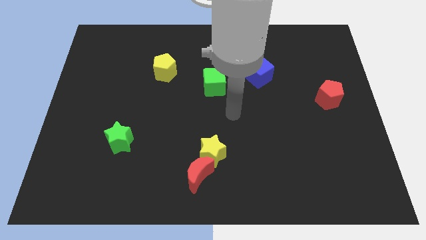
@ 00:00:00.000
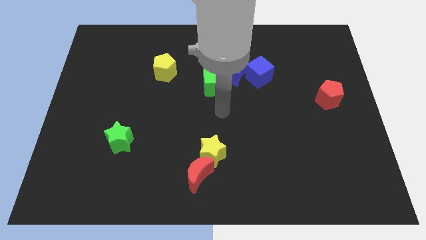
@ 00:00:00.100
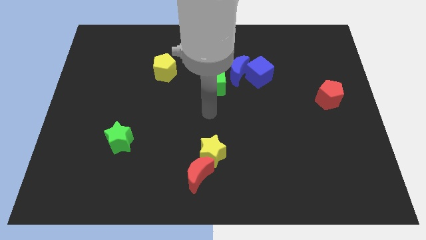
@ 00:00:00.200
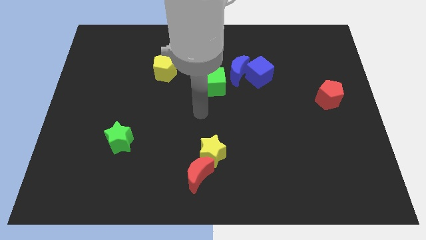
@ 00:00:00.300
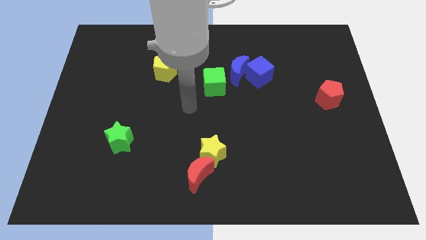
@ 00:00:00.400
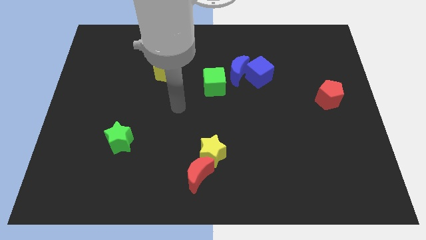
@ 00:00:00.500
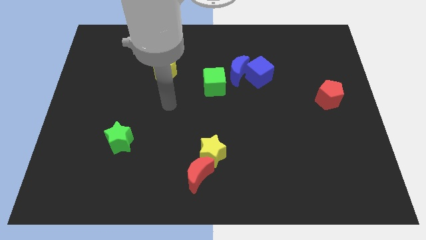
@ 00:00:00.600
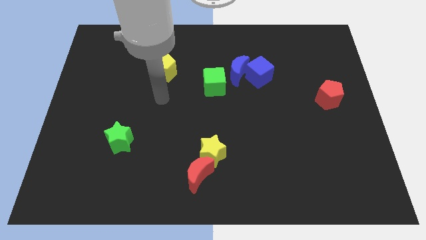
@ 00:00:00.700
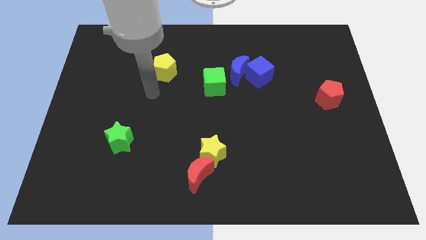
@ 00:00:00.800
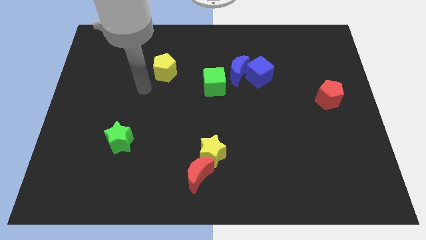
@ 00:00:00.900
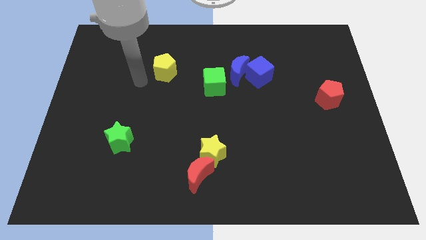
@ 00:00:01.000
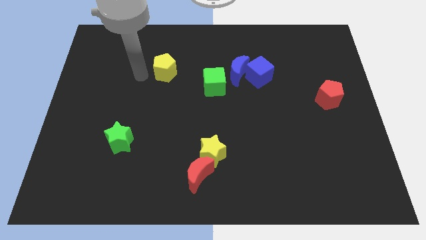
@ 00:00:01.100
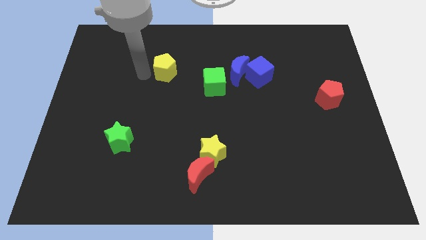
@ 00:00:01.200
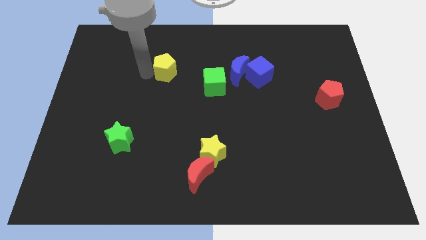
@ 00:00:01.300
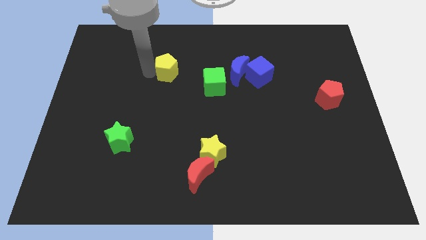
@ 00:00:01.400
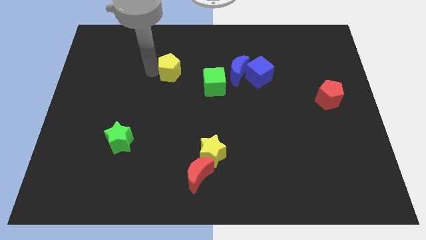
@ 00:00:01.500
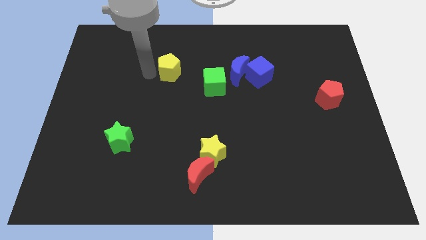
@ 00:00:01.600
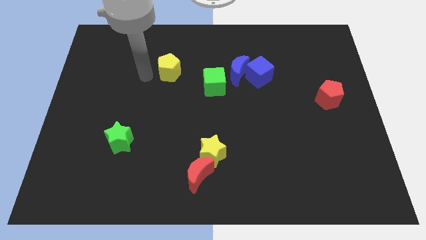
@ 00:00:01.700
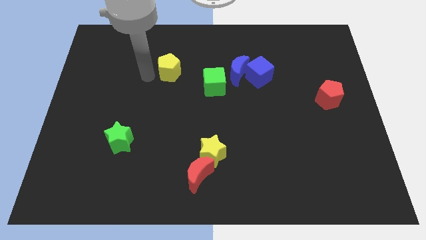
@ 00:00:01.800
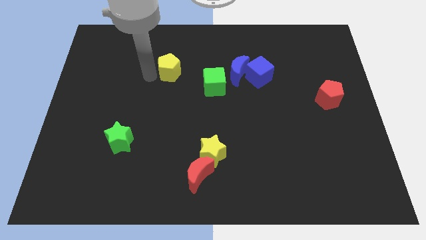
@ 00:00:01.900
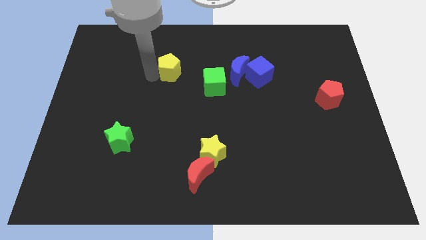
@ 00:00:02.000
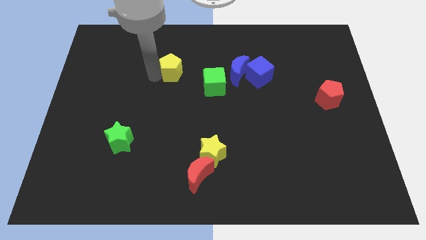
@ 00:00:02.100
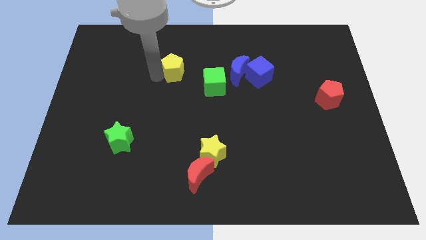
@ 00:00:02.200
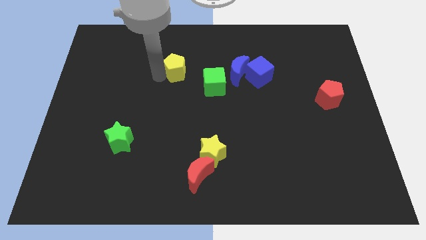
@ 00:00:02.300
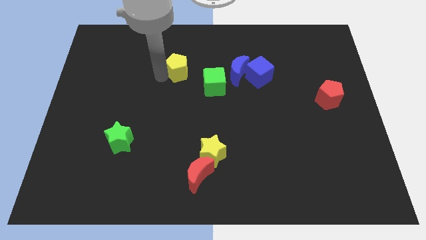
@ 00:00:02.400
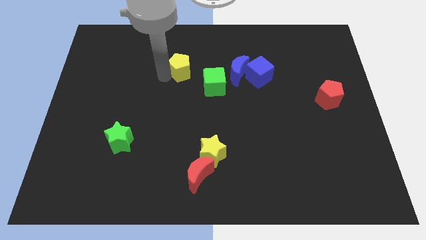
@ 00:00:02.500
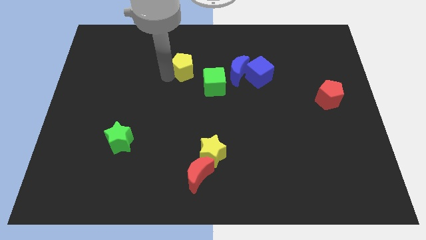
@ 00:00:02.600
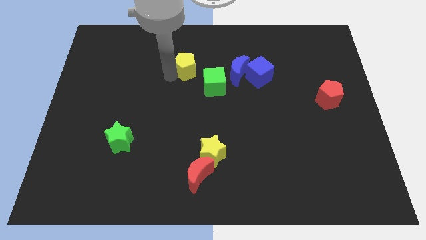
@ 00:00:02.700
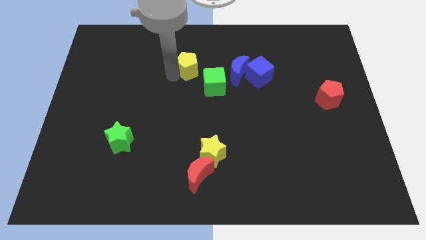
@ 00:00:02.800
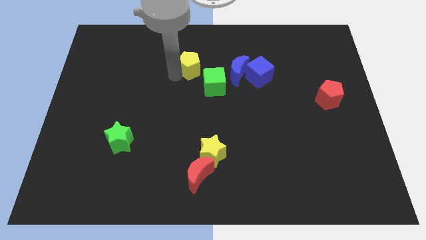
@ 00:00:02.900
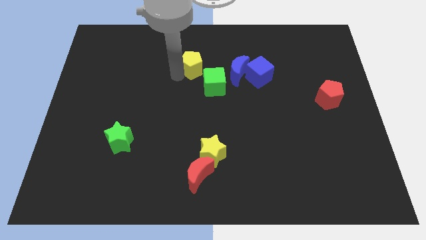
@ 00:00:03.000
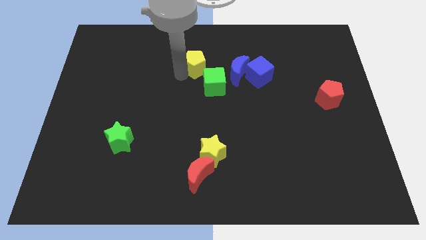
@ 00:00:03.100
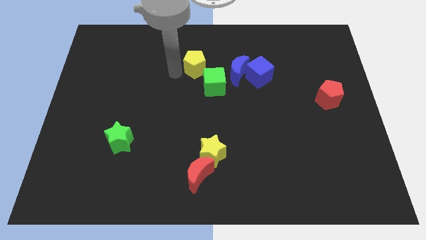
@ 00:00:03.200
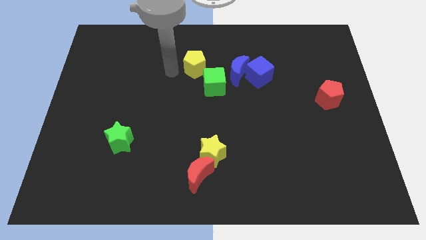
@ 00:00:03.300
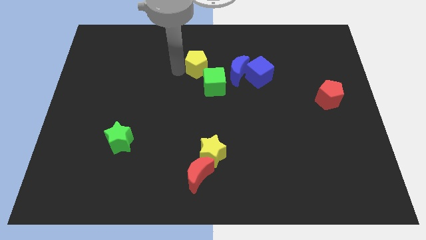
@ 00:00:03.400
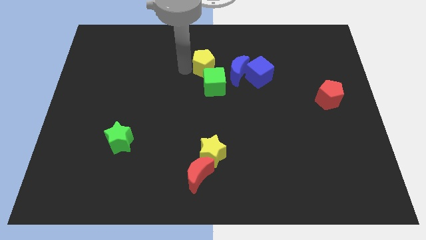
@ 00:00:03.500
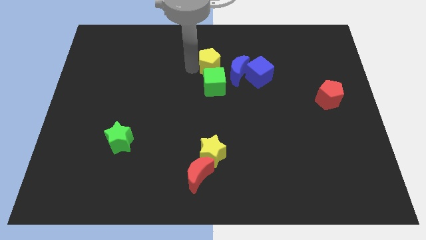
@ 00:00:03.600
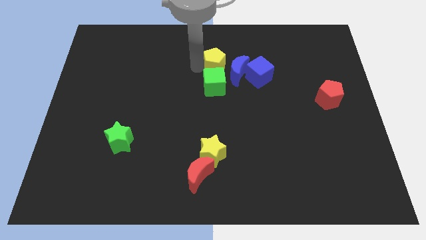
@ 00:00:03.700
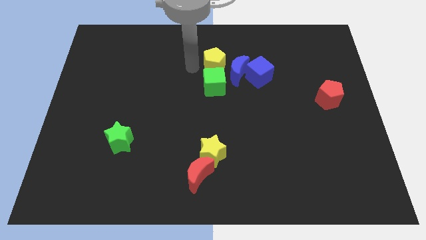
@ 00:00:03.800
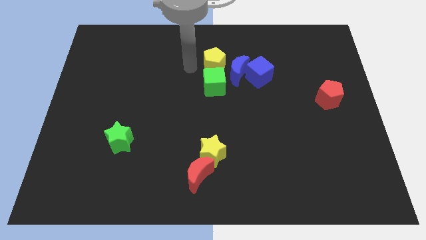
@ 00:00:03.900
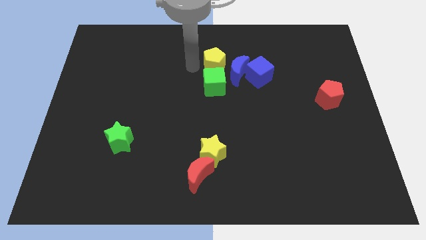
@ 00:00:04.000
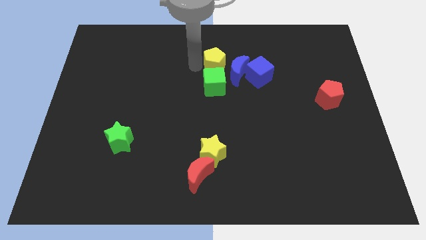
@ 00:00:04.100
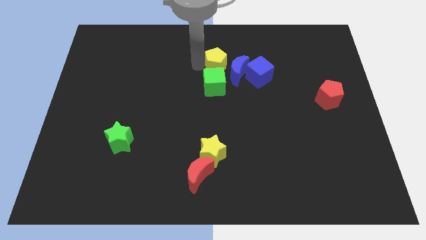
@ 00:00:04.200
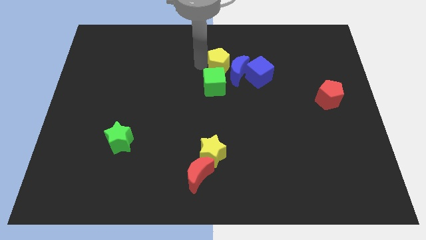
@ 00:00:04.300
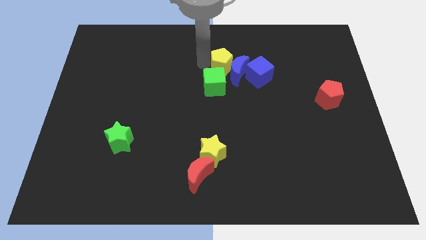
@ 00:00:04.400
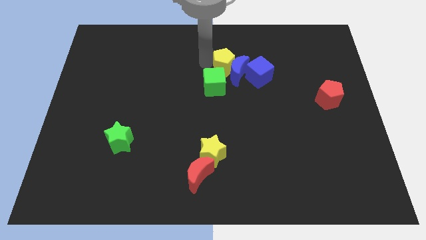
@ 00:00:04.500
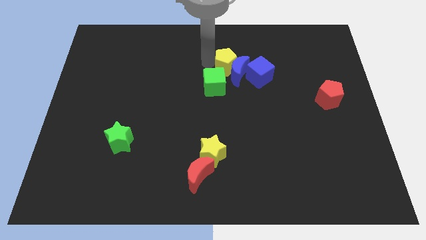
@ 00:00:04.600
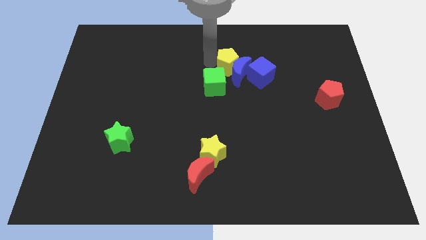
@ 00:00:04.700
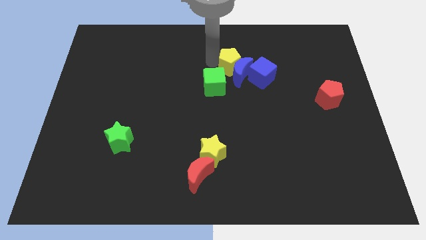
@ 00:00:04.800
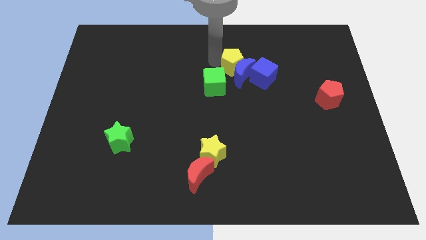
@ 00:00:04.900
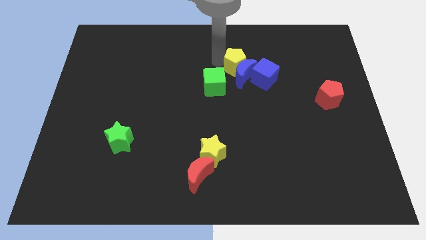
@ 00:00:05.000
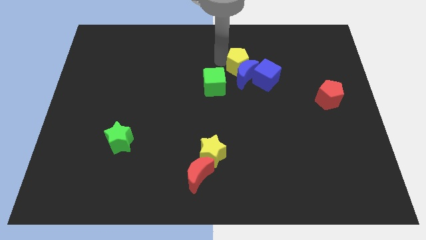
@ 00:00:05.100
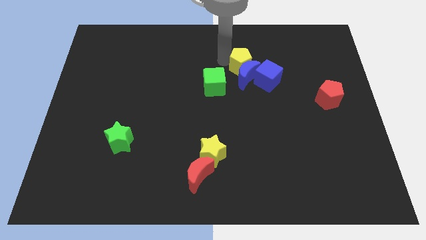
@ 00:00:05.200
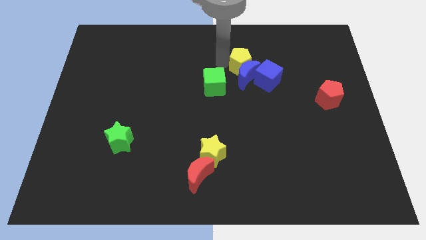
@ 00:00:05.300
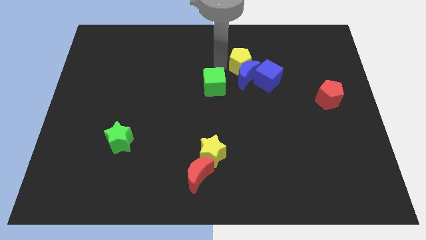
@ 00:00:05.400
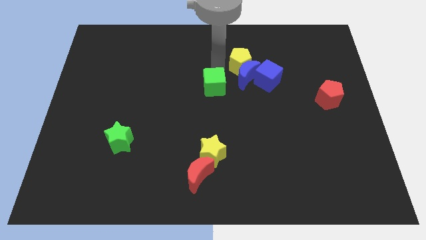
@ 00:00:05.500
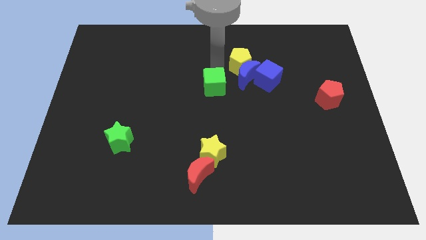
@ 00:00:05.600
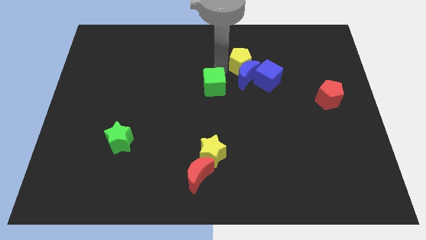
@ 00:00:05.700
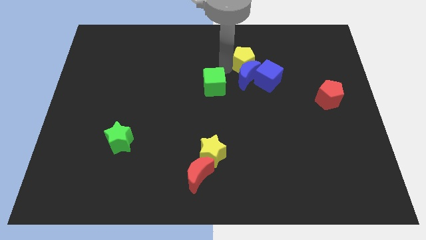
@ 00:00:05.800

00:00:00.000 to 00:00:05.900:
push the yellow pentagon right

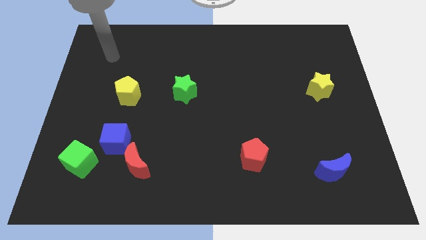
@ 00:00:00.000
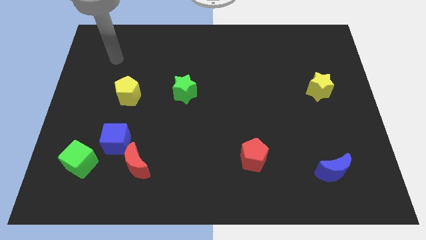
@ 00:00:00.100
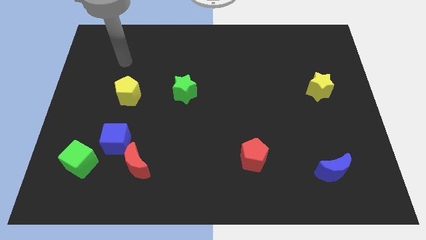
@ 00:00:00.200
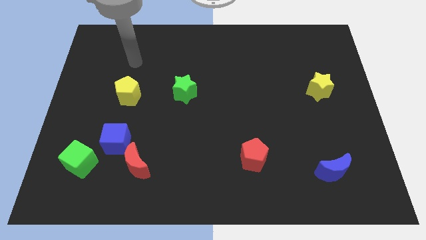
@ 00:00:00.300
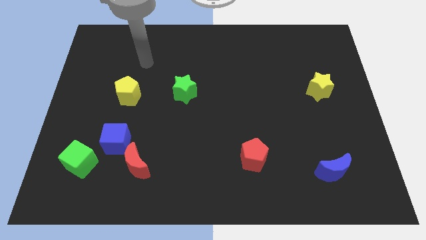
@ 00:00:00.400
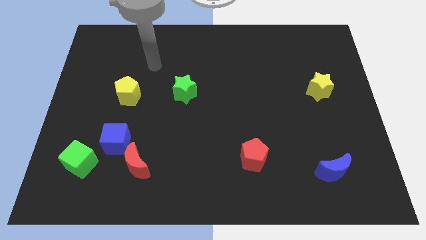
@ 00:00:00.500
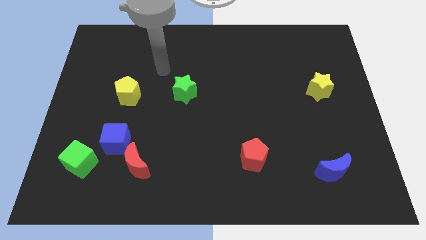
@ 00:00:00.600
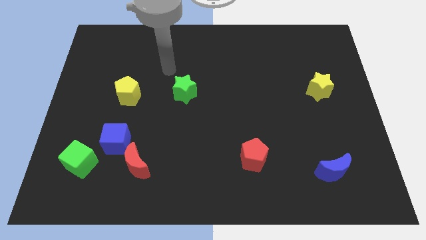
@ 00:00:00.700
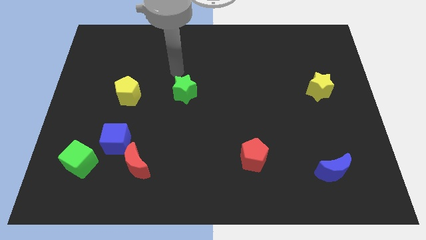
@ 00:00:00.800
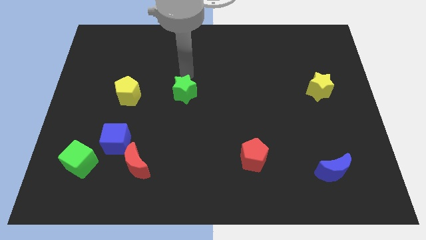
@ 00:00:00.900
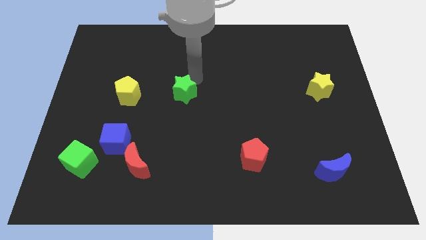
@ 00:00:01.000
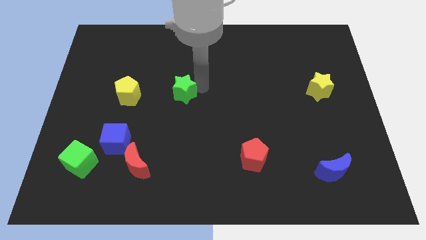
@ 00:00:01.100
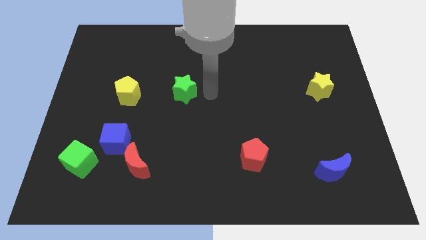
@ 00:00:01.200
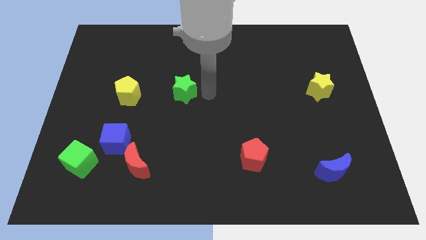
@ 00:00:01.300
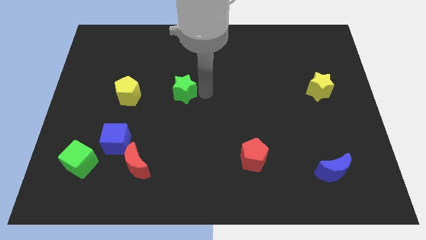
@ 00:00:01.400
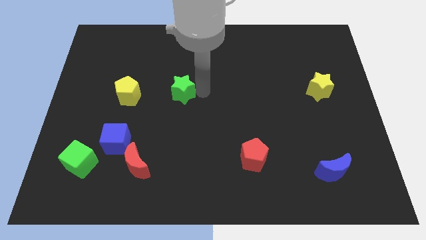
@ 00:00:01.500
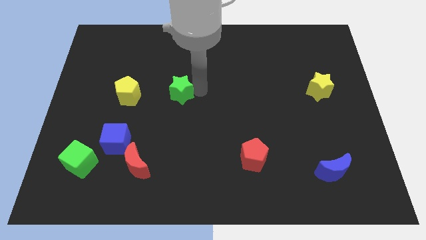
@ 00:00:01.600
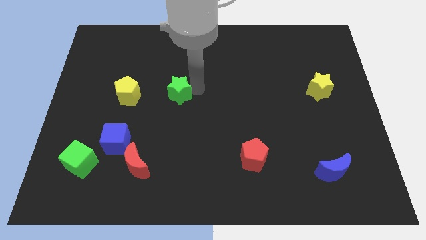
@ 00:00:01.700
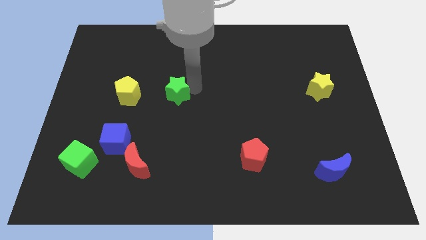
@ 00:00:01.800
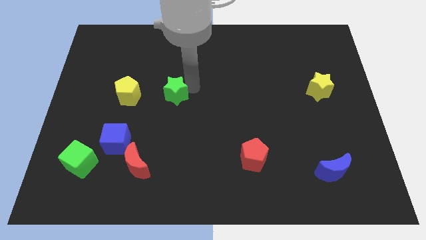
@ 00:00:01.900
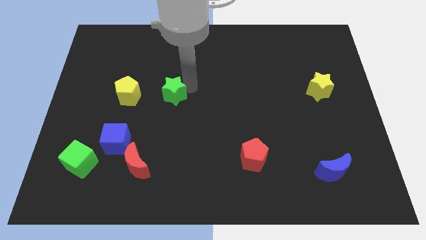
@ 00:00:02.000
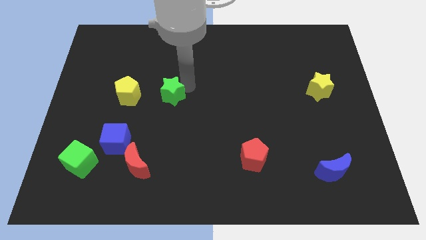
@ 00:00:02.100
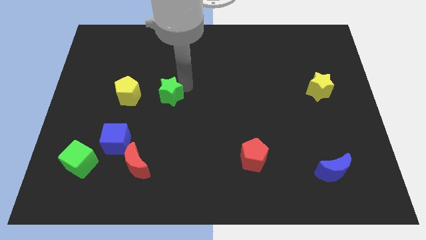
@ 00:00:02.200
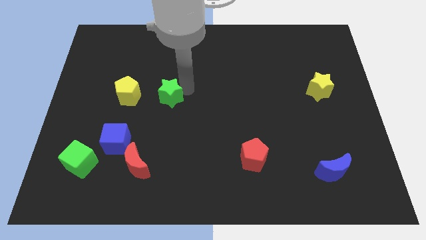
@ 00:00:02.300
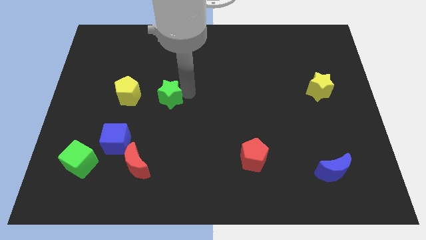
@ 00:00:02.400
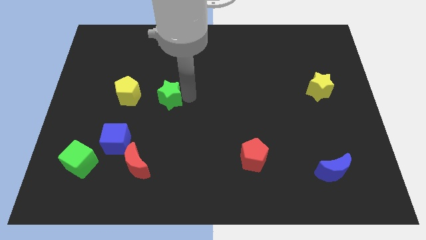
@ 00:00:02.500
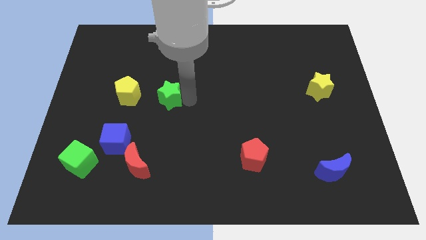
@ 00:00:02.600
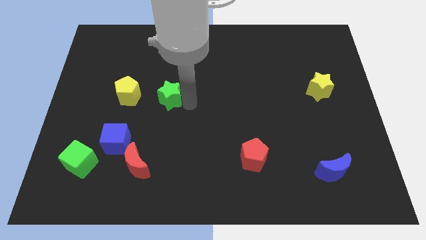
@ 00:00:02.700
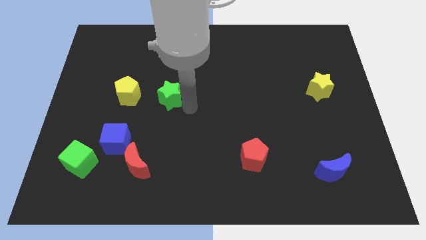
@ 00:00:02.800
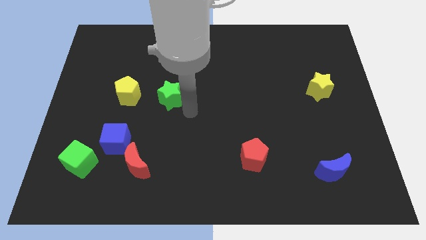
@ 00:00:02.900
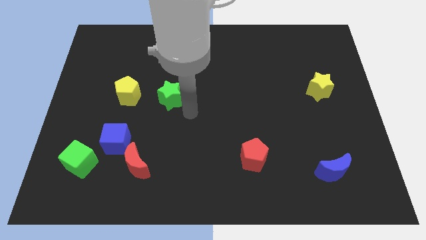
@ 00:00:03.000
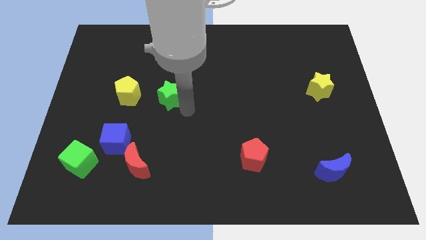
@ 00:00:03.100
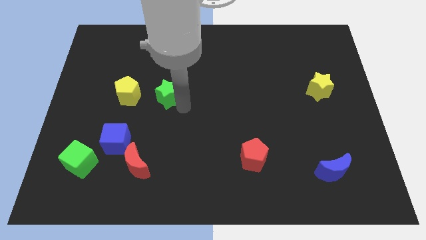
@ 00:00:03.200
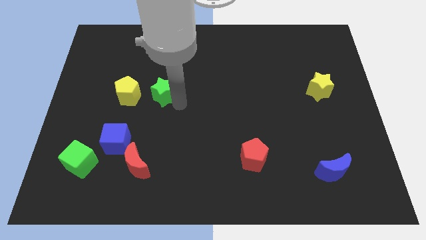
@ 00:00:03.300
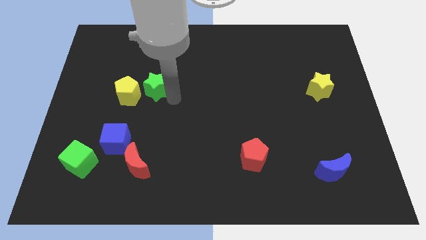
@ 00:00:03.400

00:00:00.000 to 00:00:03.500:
slightly move the green star left
